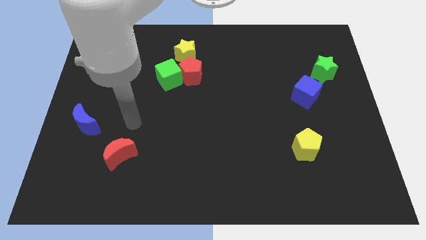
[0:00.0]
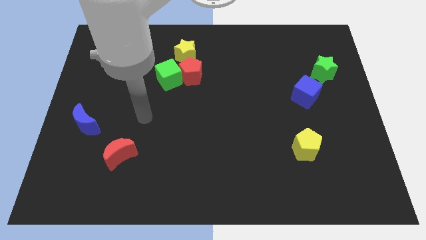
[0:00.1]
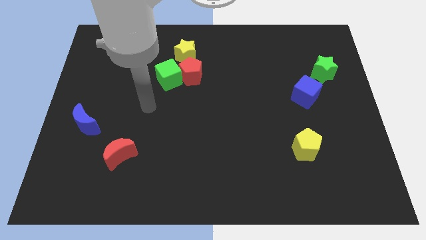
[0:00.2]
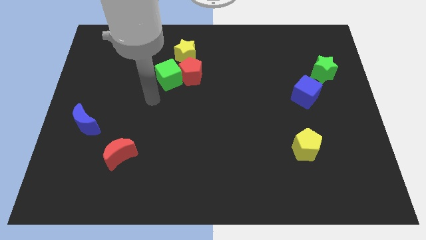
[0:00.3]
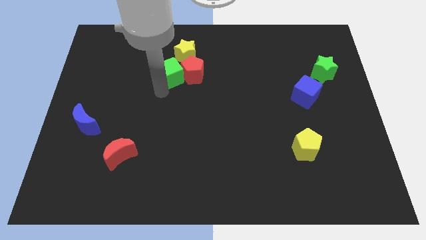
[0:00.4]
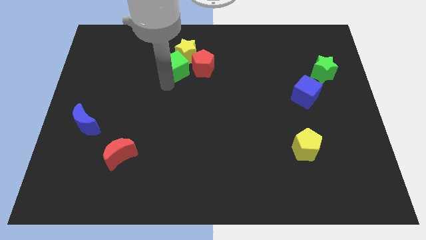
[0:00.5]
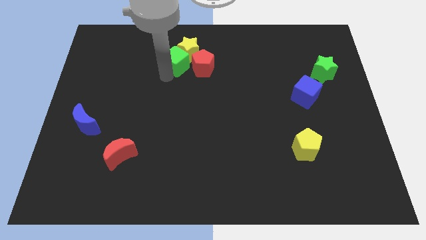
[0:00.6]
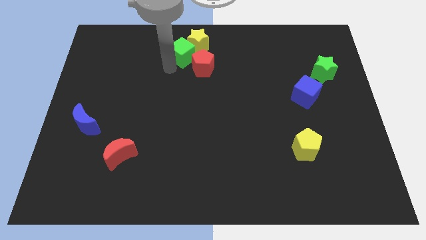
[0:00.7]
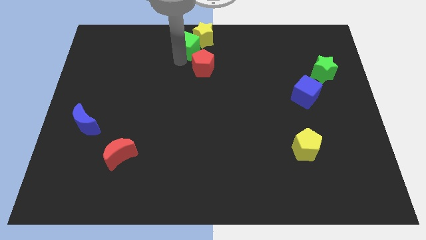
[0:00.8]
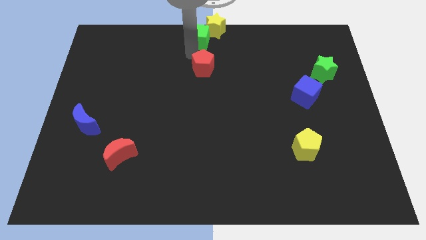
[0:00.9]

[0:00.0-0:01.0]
separate the red pentagon from the green cube and yellow star

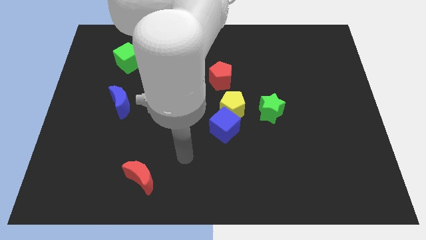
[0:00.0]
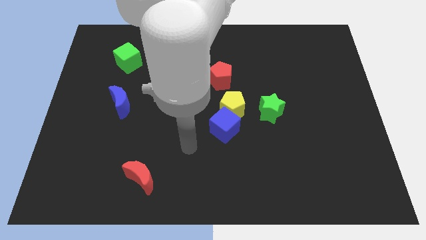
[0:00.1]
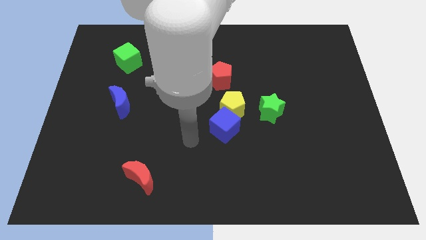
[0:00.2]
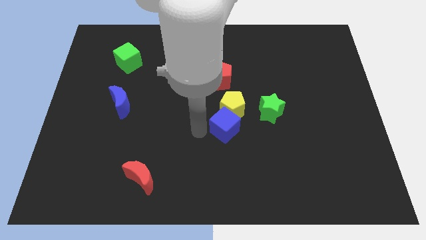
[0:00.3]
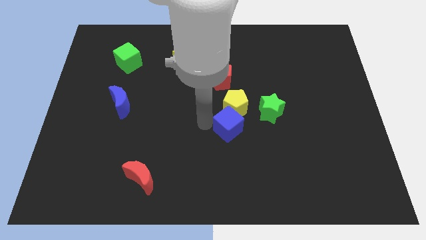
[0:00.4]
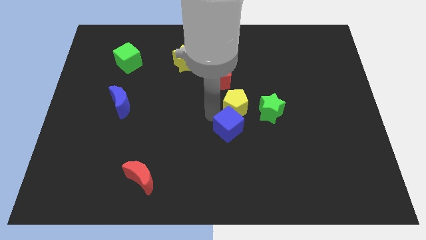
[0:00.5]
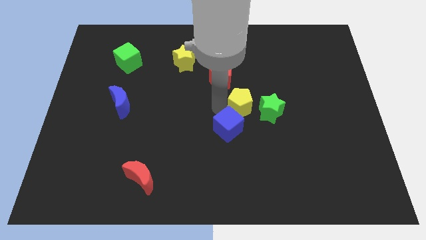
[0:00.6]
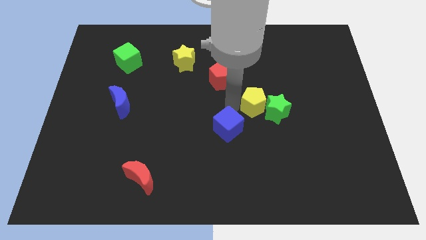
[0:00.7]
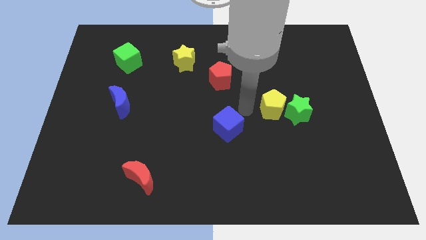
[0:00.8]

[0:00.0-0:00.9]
move the blue cube away from the yellow pentagon

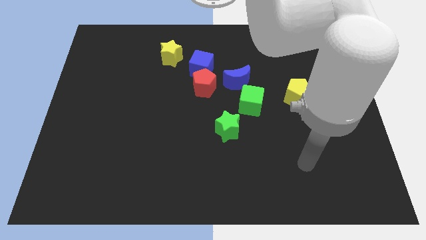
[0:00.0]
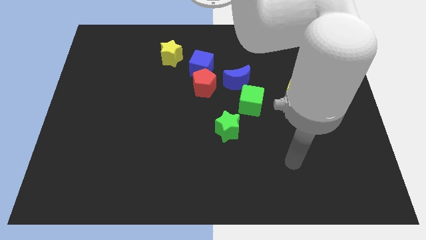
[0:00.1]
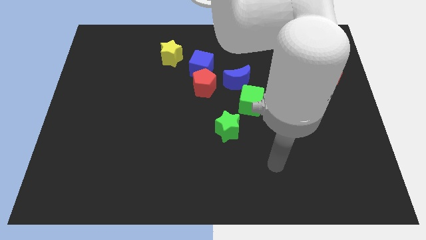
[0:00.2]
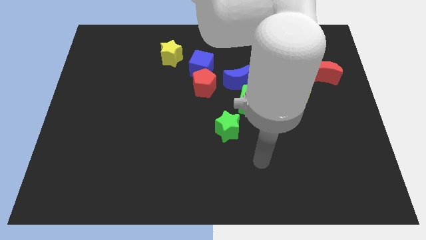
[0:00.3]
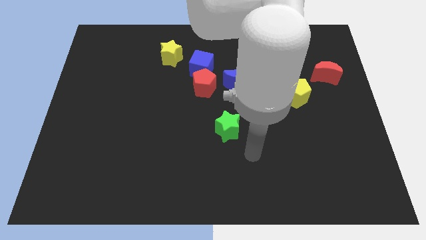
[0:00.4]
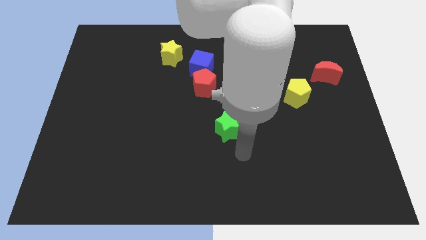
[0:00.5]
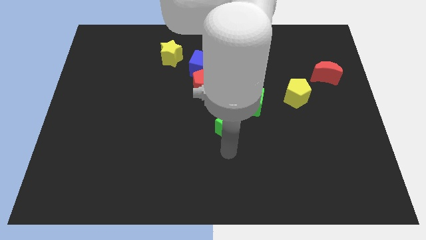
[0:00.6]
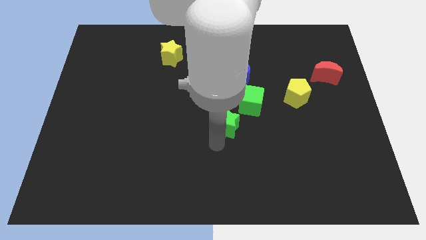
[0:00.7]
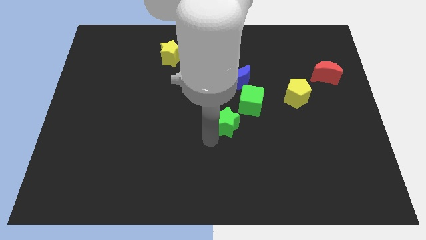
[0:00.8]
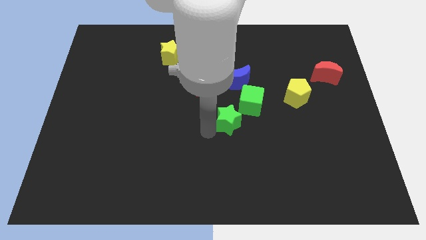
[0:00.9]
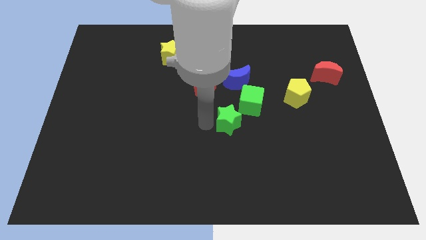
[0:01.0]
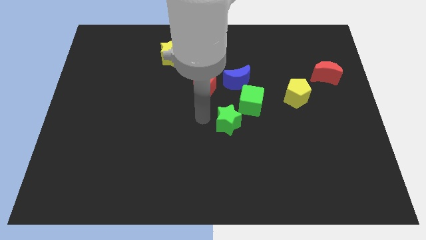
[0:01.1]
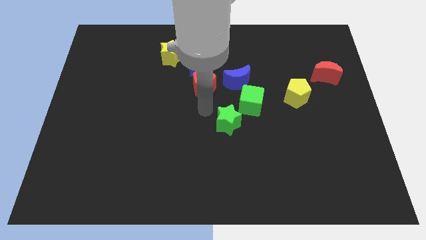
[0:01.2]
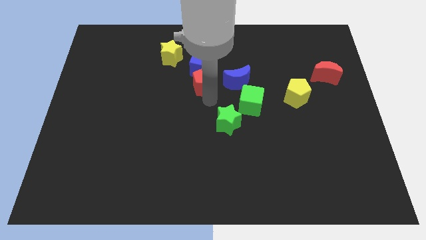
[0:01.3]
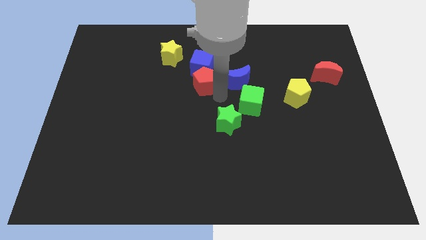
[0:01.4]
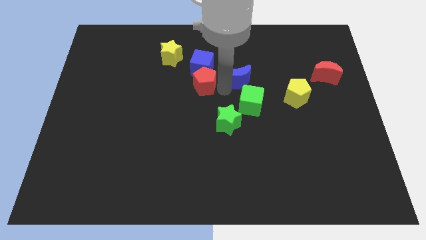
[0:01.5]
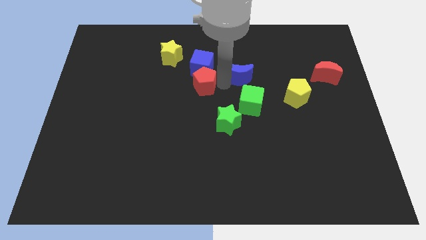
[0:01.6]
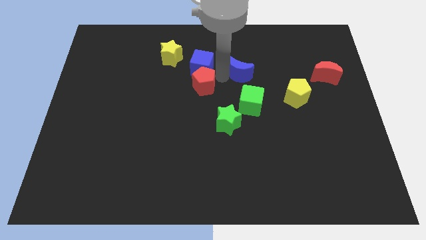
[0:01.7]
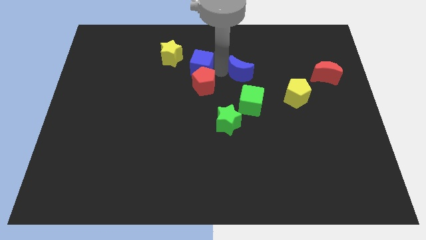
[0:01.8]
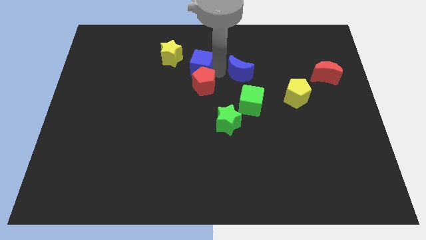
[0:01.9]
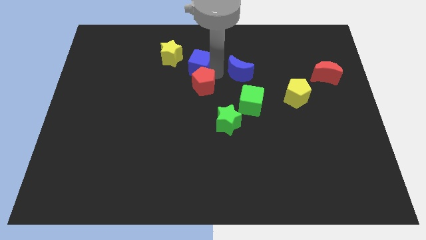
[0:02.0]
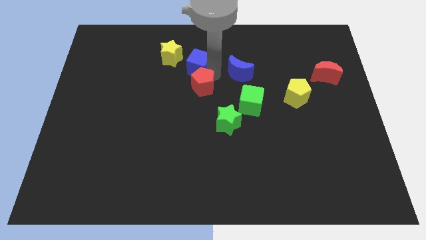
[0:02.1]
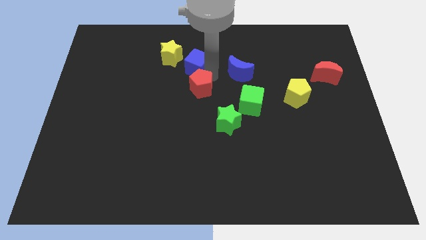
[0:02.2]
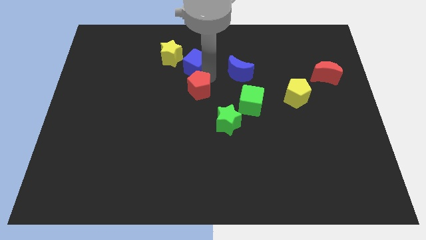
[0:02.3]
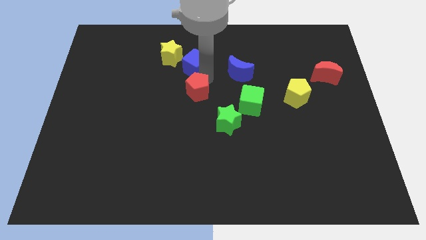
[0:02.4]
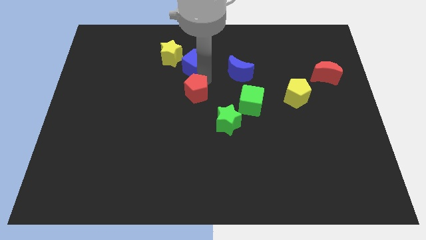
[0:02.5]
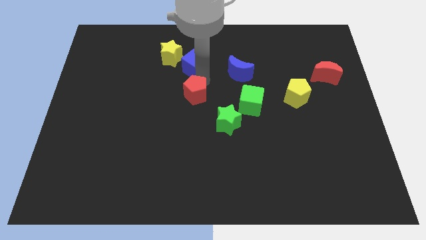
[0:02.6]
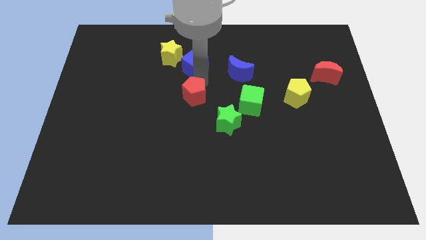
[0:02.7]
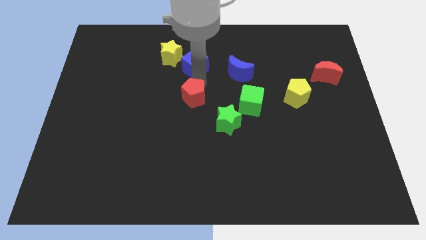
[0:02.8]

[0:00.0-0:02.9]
separate the red pentagon from the blue cube and blue moon

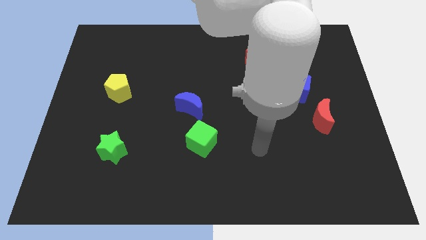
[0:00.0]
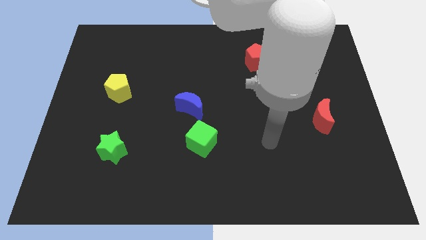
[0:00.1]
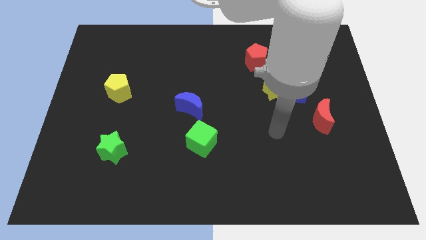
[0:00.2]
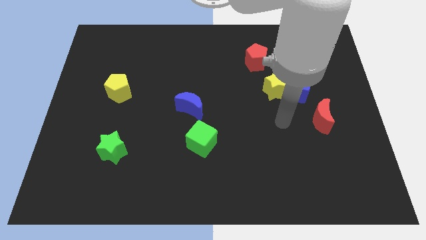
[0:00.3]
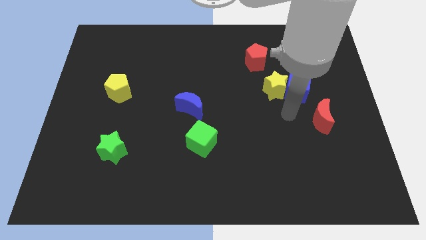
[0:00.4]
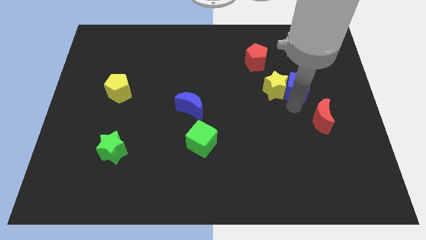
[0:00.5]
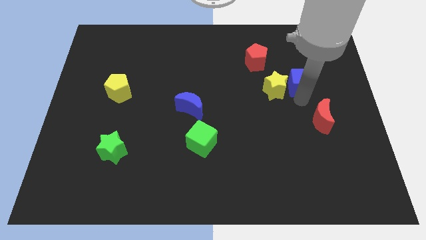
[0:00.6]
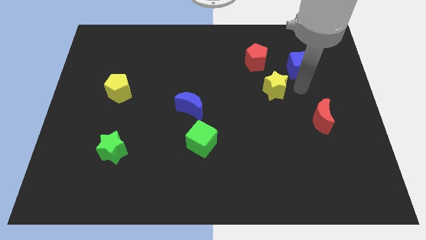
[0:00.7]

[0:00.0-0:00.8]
pull the yellow star apart from the blue cube

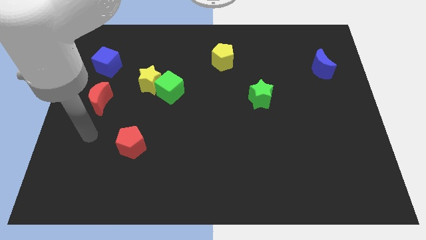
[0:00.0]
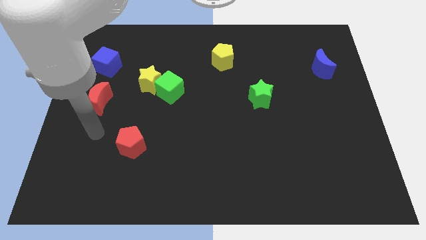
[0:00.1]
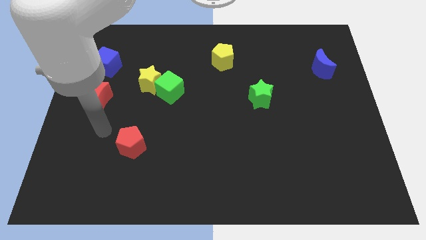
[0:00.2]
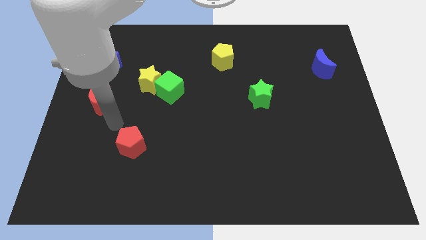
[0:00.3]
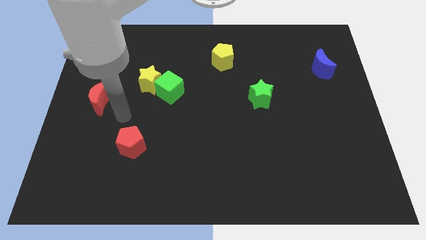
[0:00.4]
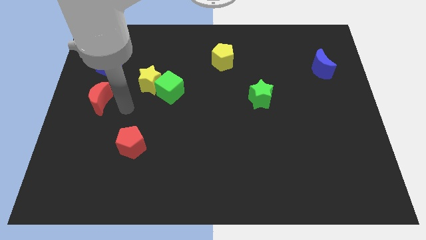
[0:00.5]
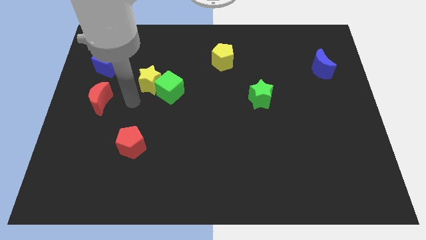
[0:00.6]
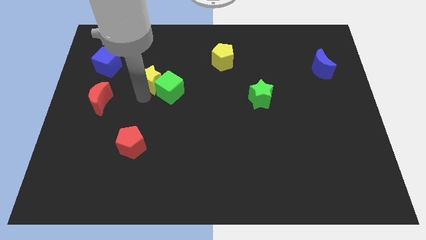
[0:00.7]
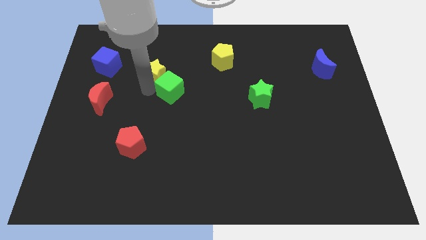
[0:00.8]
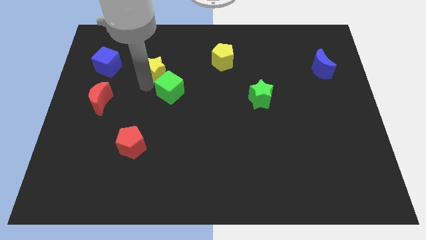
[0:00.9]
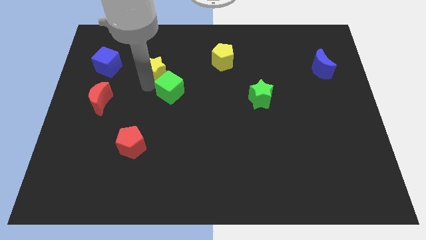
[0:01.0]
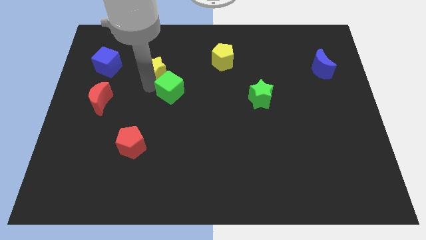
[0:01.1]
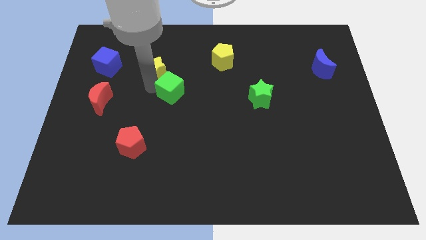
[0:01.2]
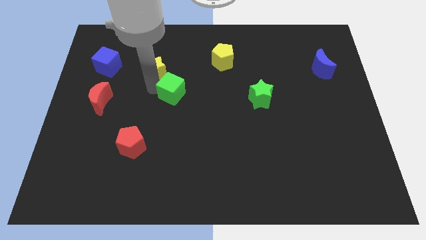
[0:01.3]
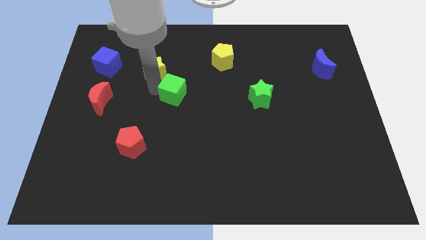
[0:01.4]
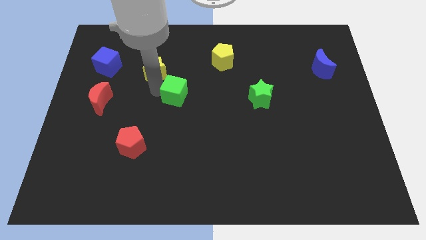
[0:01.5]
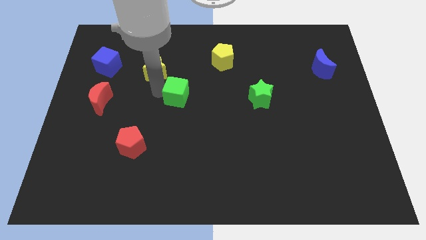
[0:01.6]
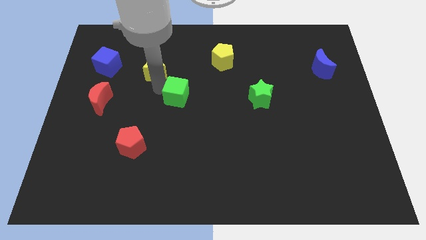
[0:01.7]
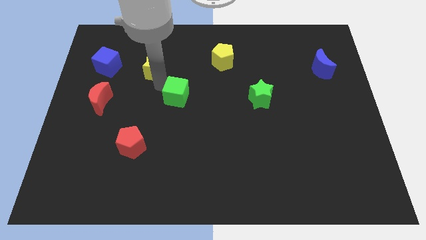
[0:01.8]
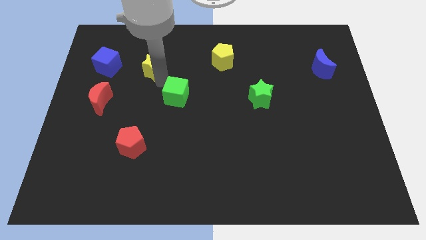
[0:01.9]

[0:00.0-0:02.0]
move the green cube away from the yellow star

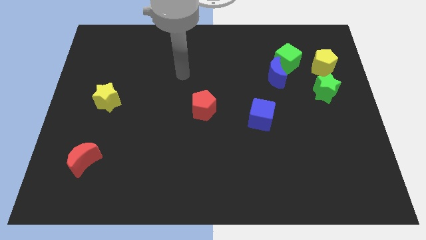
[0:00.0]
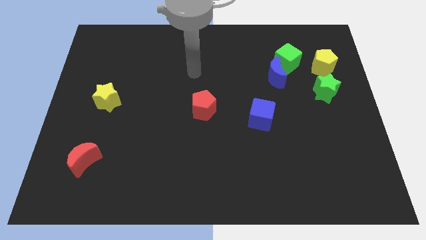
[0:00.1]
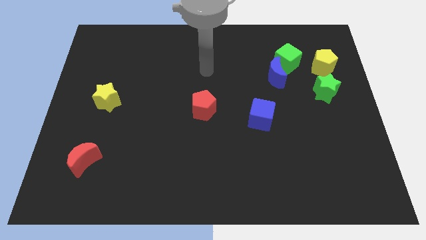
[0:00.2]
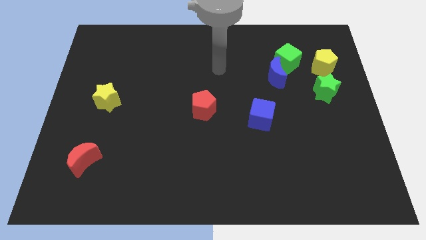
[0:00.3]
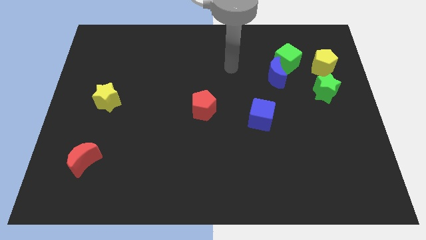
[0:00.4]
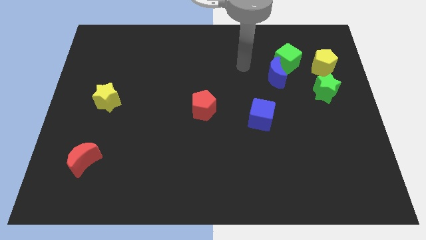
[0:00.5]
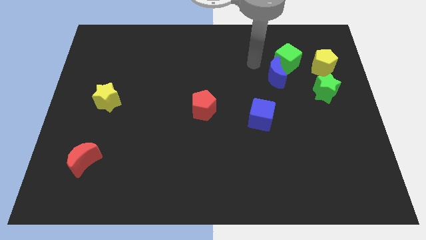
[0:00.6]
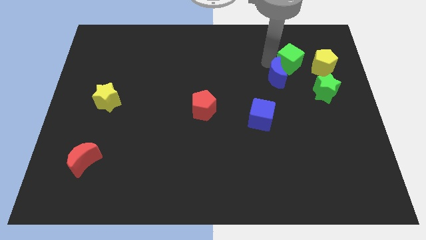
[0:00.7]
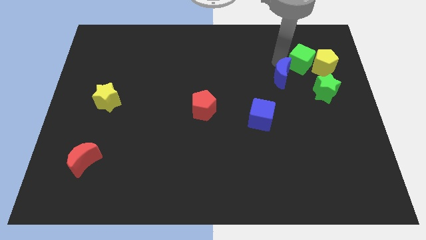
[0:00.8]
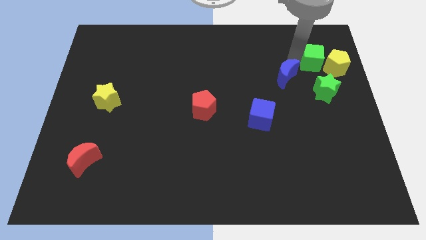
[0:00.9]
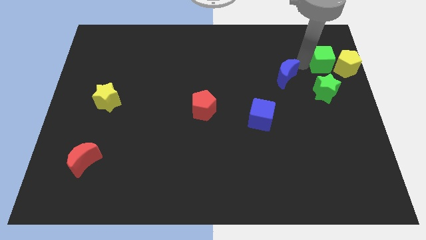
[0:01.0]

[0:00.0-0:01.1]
pull the blue moon apart from the green cube

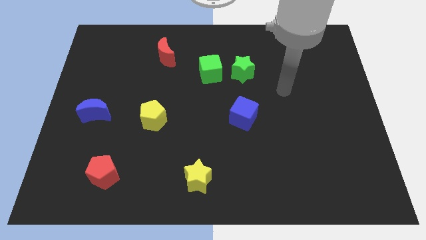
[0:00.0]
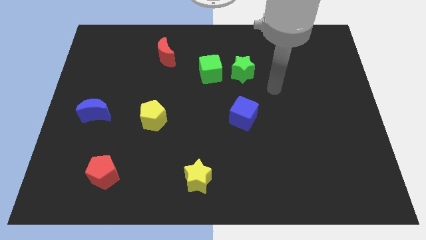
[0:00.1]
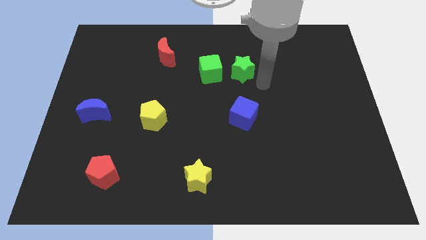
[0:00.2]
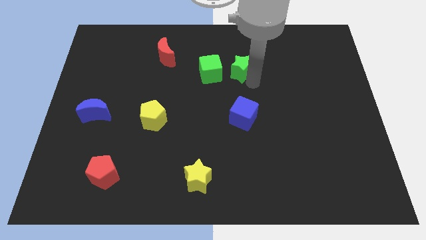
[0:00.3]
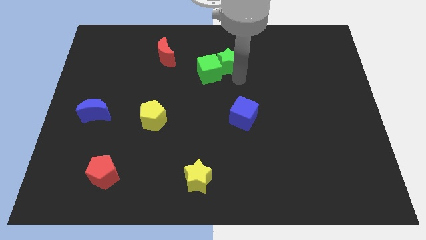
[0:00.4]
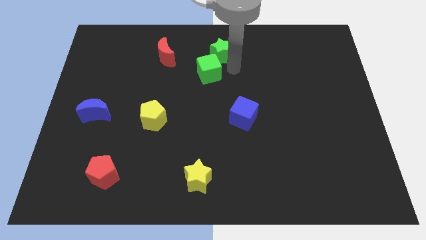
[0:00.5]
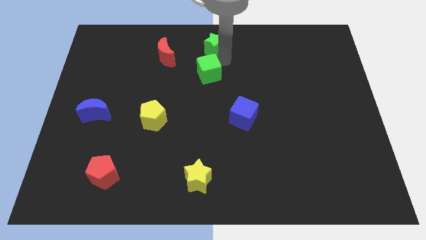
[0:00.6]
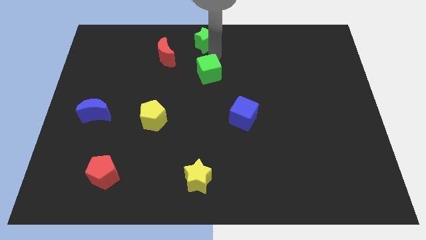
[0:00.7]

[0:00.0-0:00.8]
move the green cube away from the green star
